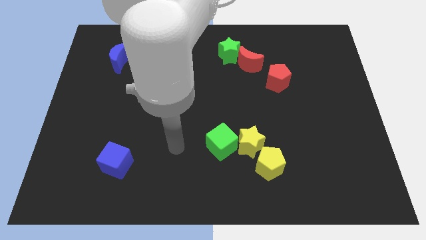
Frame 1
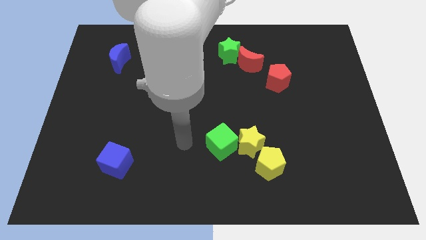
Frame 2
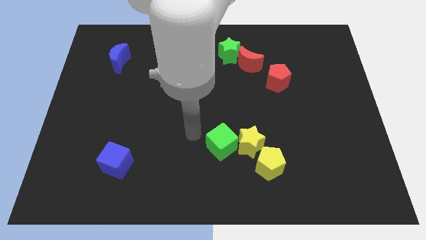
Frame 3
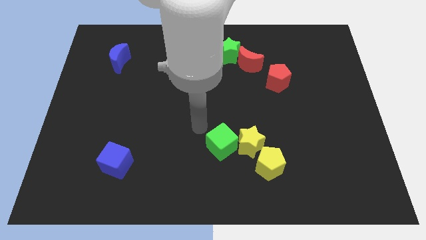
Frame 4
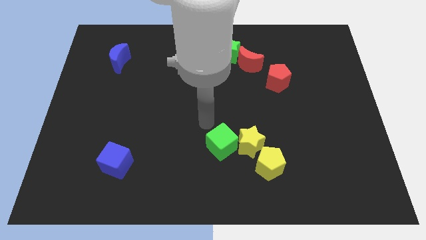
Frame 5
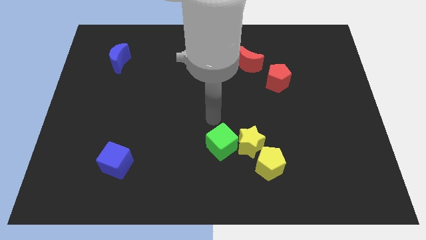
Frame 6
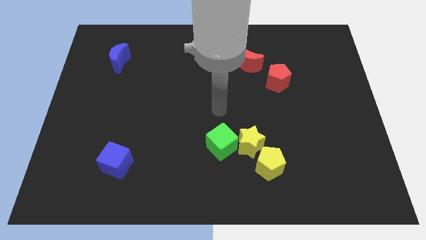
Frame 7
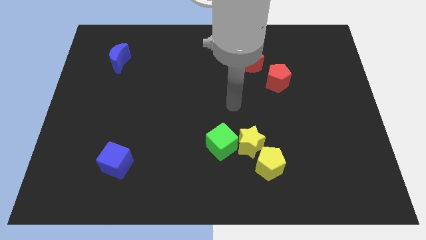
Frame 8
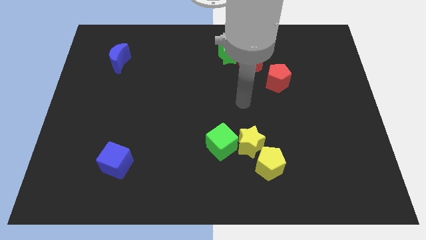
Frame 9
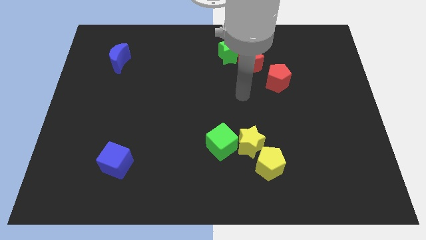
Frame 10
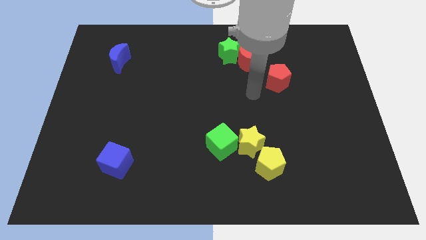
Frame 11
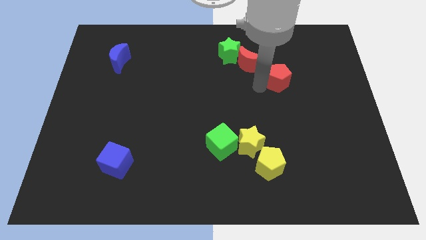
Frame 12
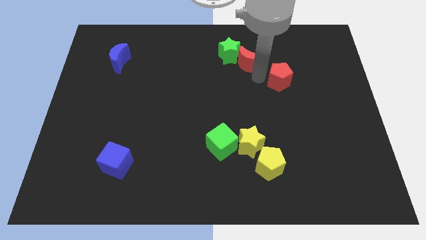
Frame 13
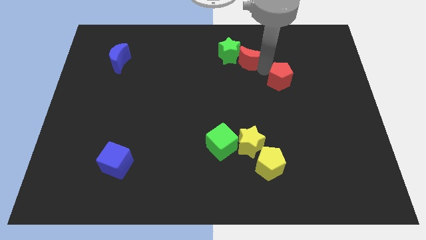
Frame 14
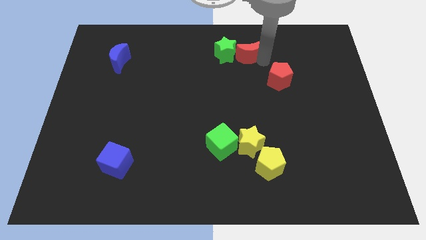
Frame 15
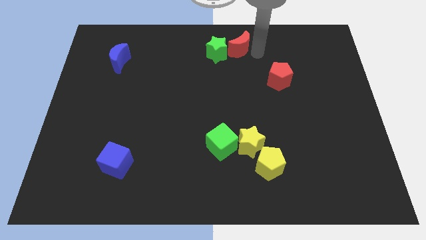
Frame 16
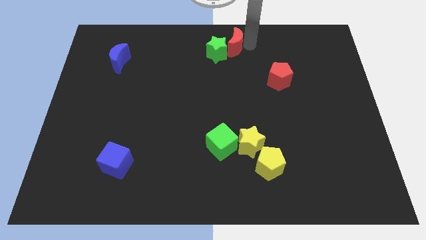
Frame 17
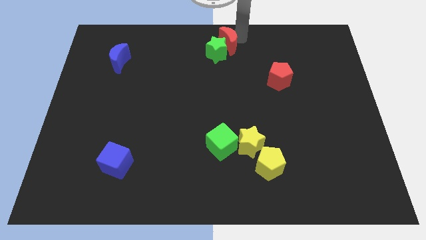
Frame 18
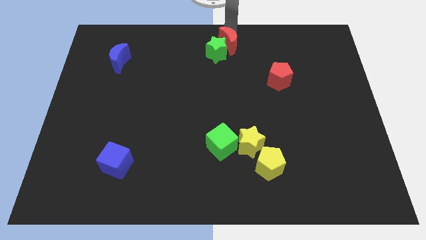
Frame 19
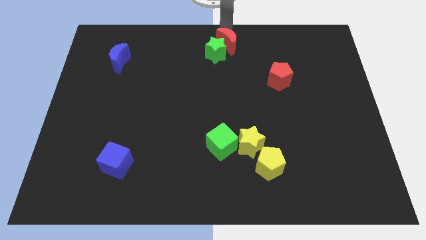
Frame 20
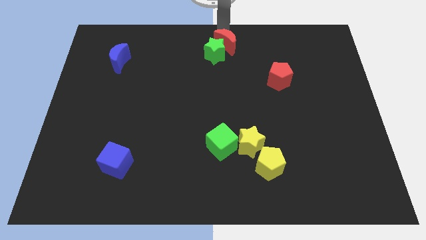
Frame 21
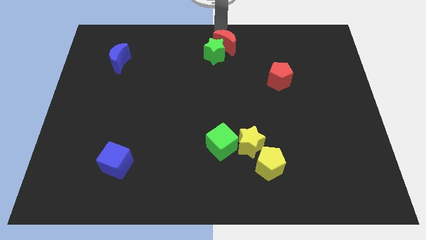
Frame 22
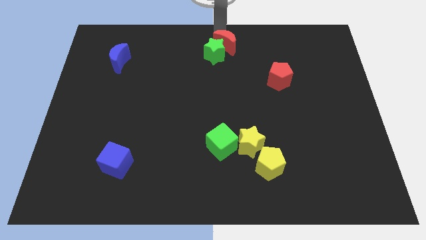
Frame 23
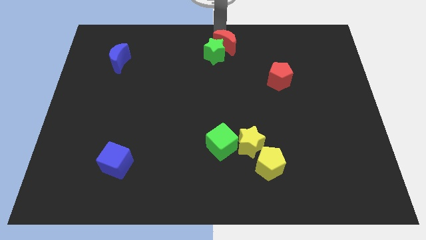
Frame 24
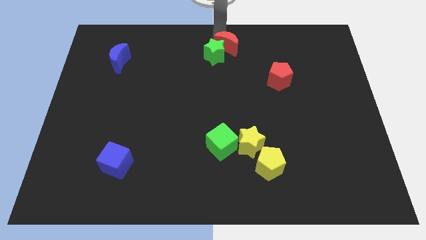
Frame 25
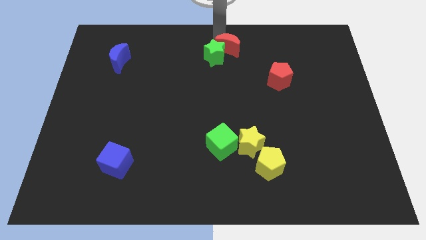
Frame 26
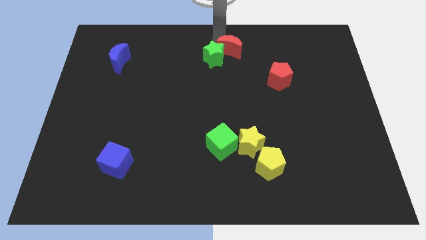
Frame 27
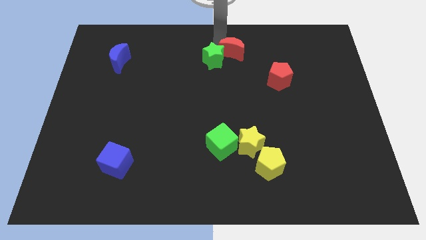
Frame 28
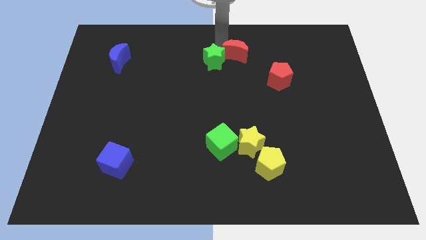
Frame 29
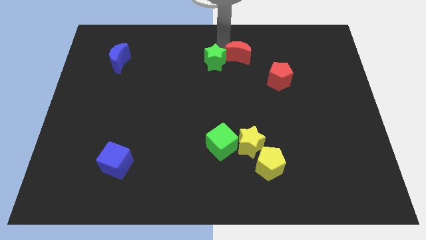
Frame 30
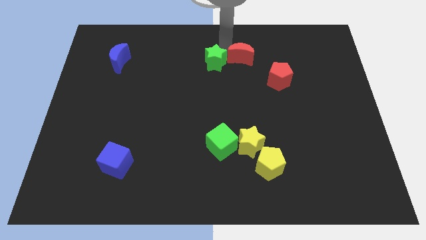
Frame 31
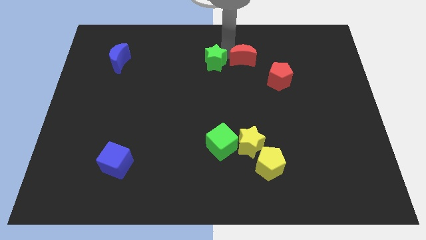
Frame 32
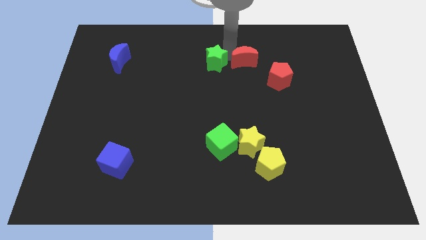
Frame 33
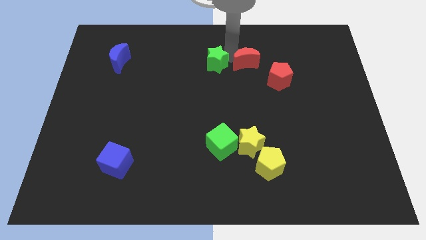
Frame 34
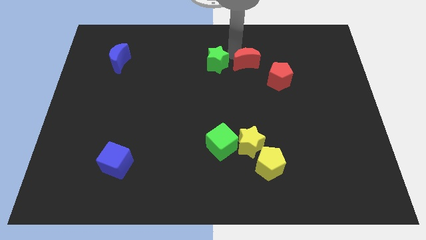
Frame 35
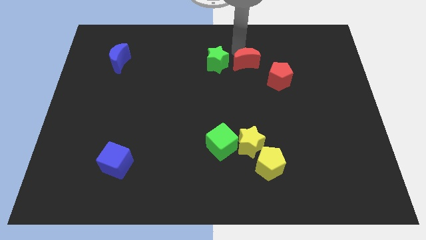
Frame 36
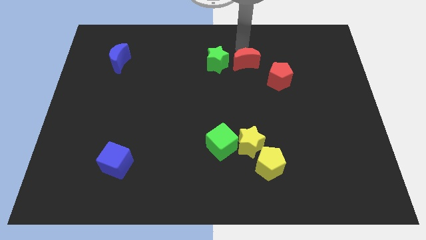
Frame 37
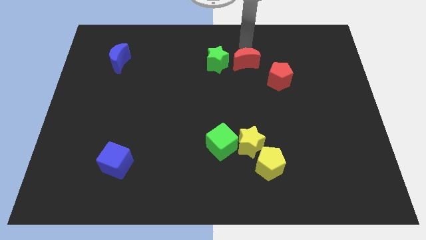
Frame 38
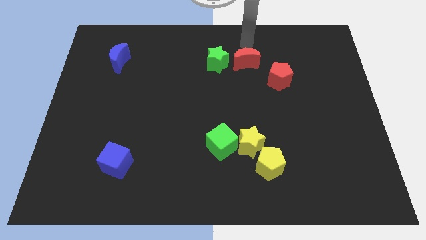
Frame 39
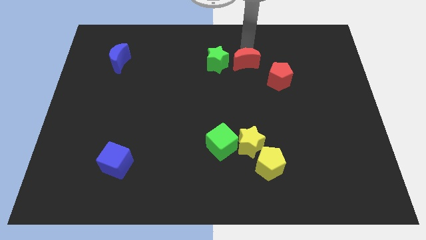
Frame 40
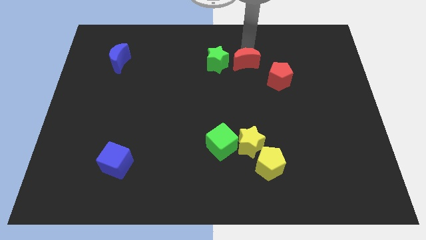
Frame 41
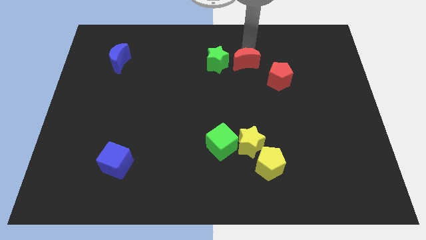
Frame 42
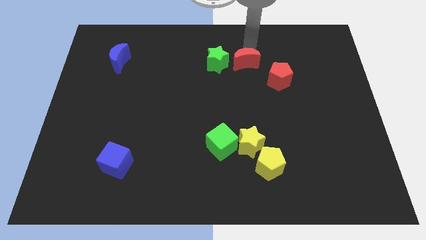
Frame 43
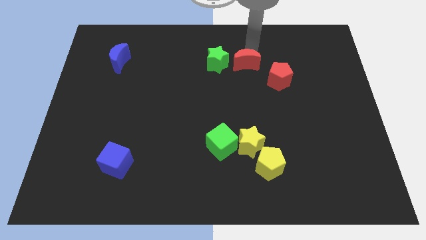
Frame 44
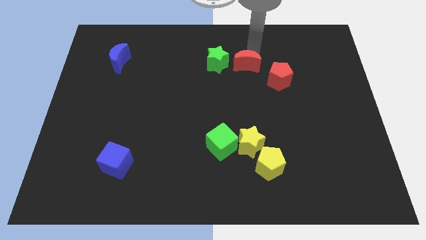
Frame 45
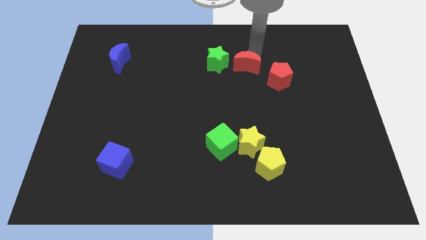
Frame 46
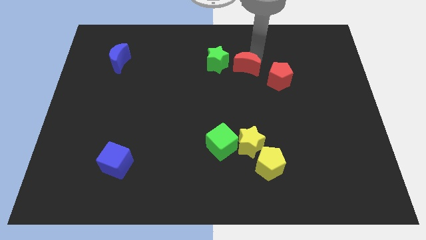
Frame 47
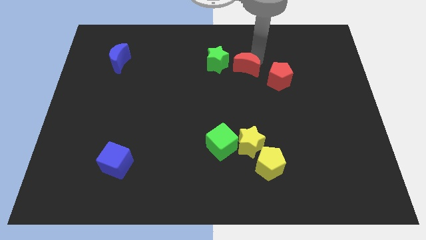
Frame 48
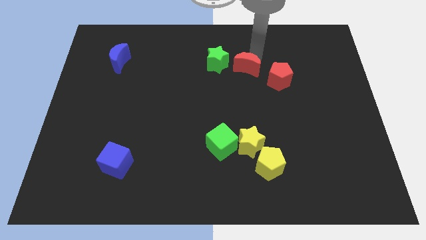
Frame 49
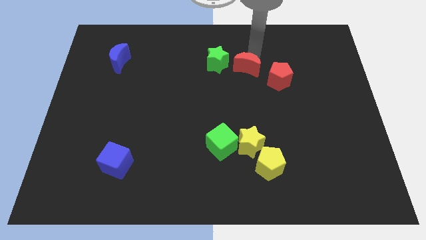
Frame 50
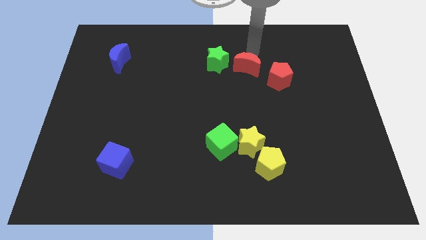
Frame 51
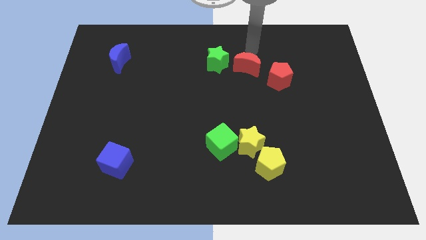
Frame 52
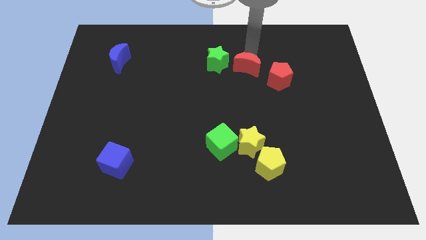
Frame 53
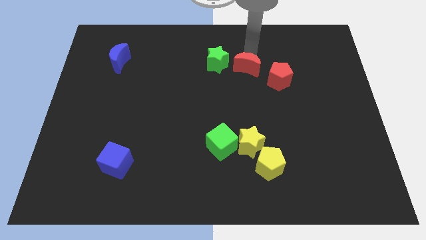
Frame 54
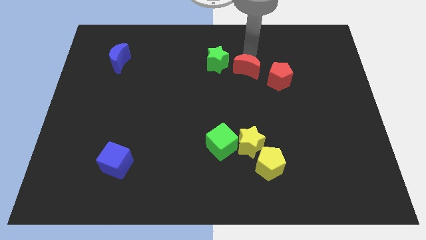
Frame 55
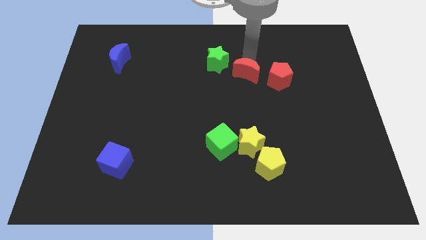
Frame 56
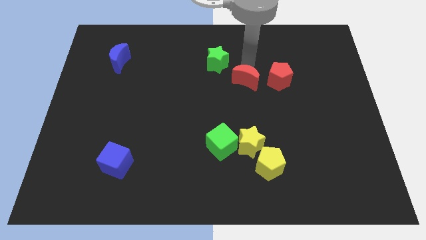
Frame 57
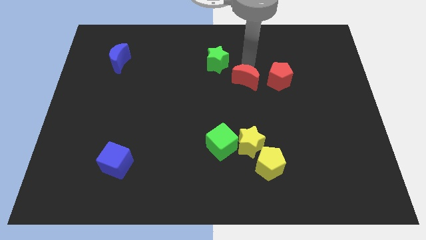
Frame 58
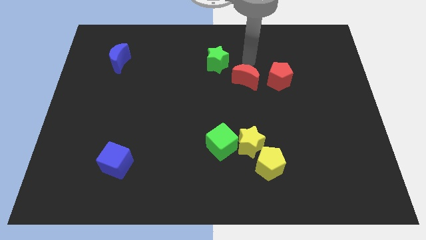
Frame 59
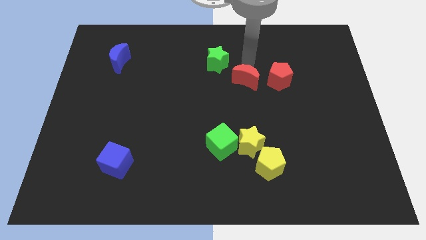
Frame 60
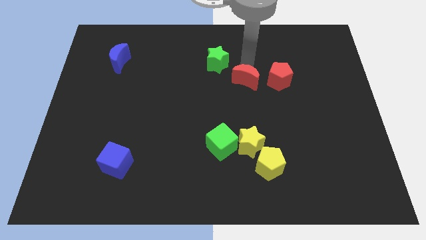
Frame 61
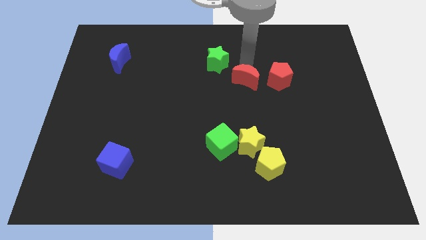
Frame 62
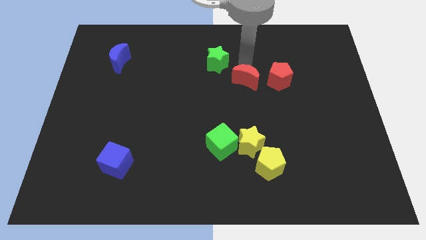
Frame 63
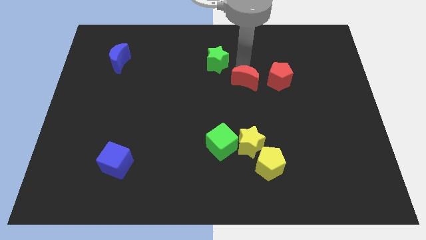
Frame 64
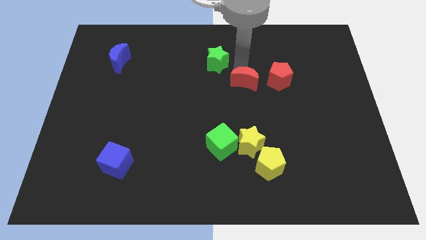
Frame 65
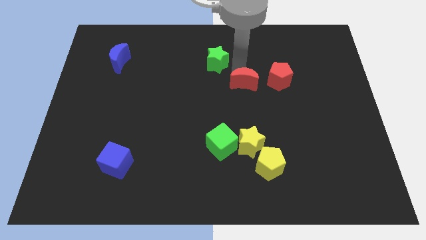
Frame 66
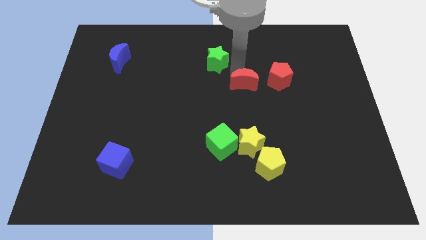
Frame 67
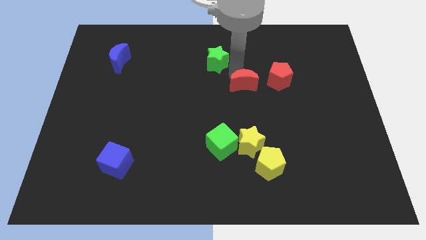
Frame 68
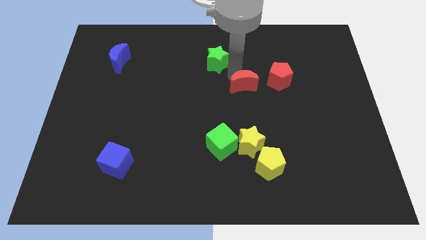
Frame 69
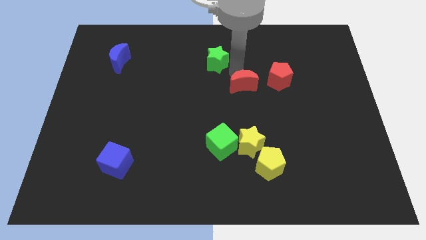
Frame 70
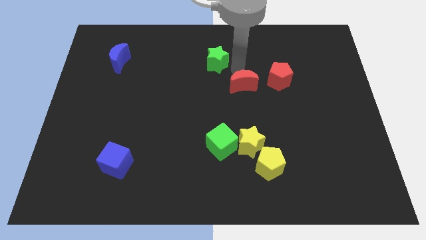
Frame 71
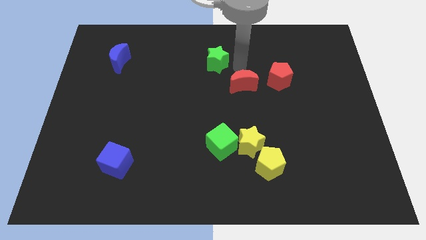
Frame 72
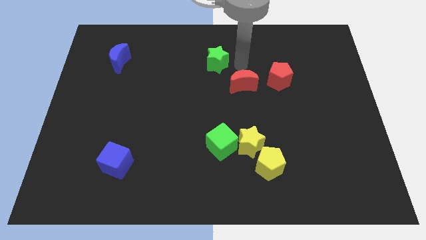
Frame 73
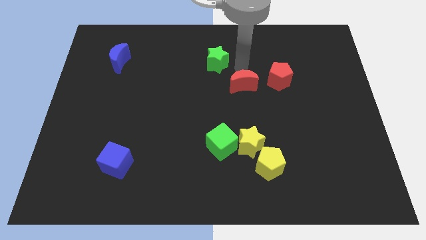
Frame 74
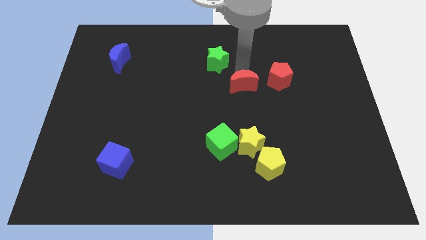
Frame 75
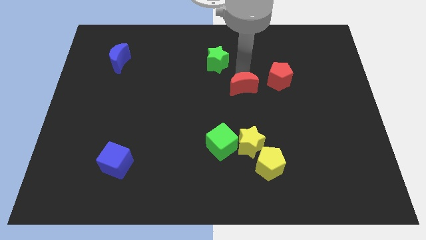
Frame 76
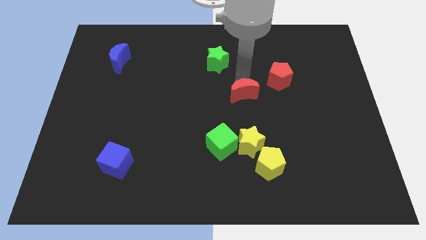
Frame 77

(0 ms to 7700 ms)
push the red moon to the top of the yellow star
